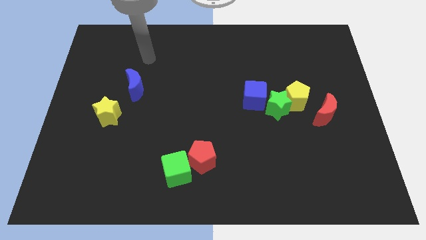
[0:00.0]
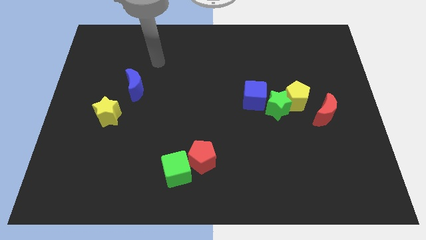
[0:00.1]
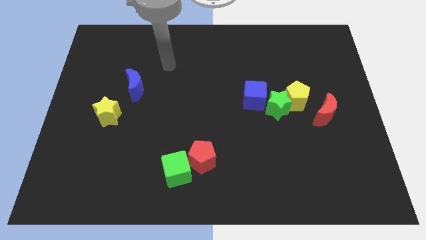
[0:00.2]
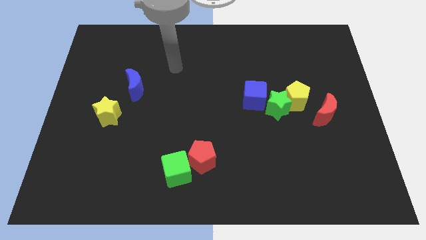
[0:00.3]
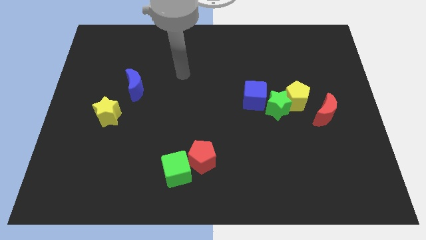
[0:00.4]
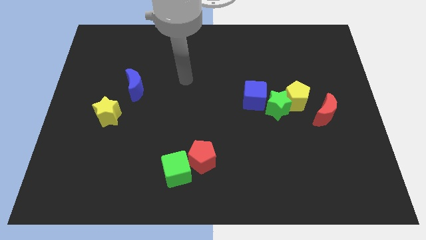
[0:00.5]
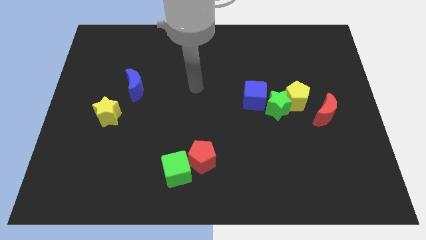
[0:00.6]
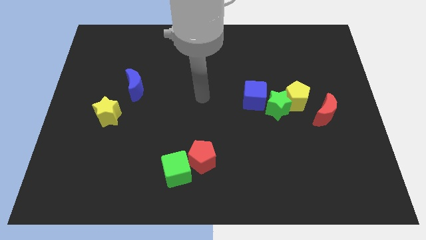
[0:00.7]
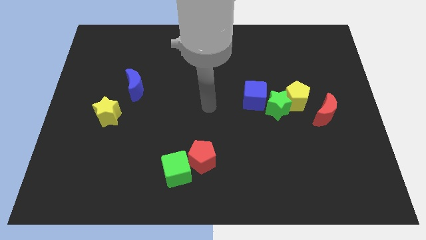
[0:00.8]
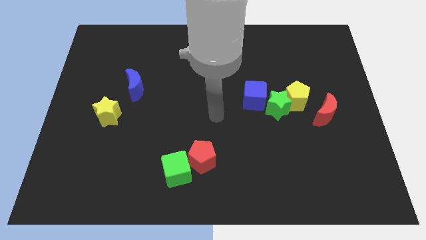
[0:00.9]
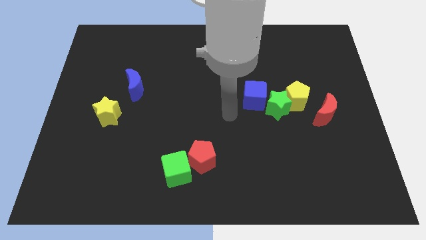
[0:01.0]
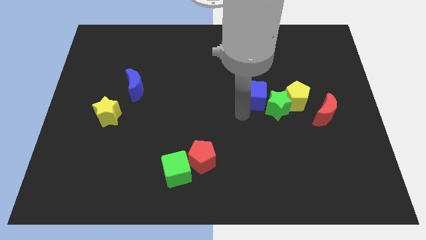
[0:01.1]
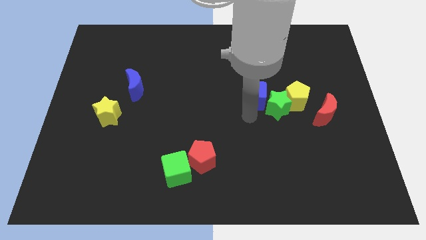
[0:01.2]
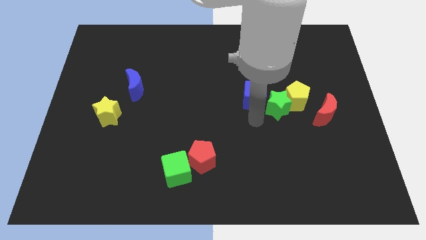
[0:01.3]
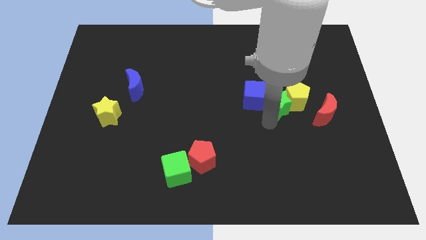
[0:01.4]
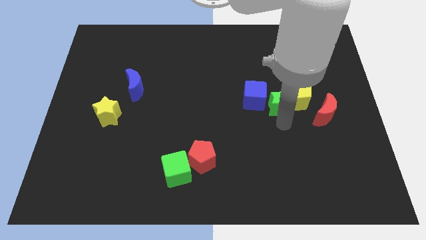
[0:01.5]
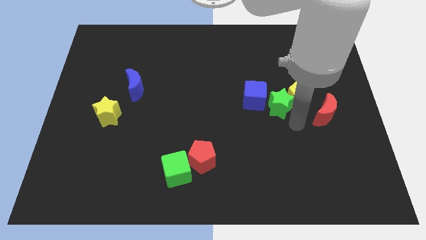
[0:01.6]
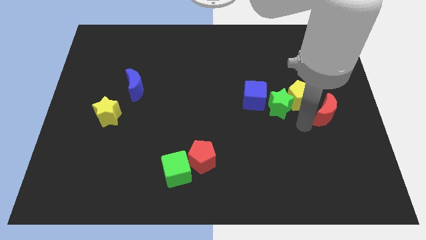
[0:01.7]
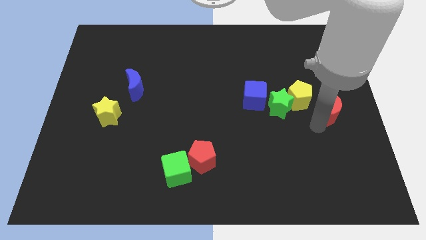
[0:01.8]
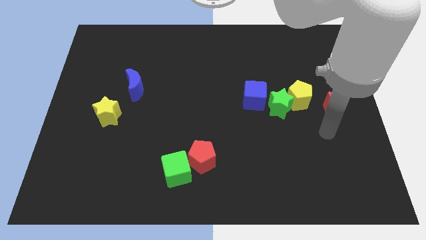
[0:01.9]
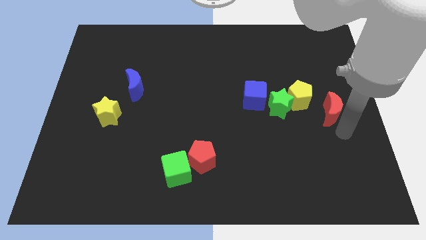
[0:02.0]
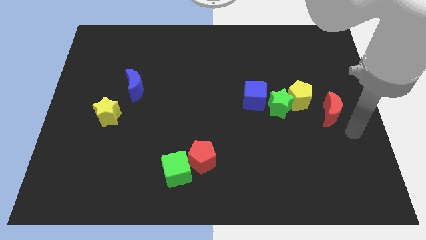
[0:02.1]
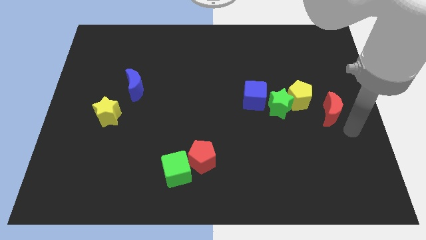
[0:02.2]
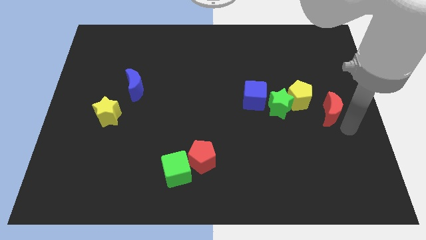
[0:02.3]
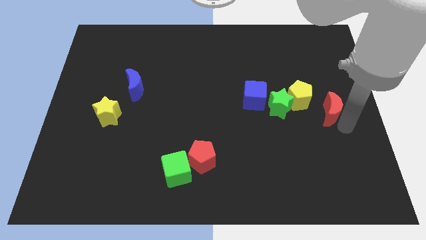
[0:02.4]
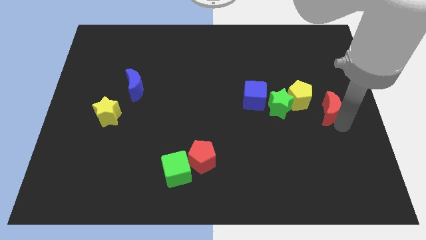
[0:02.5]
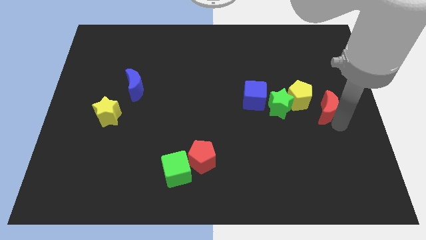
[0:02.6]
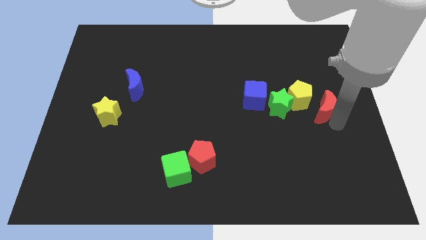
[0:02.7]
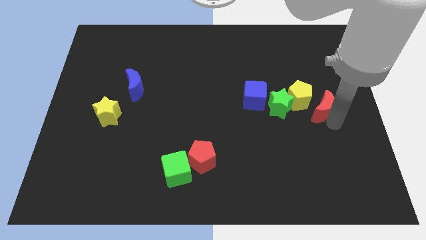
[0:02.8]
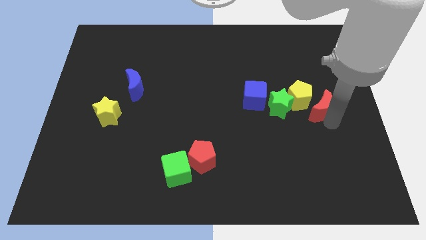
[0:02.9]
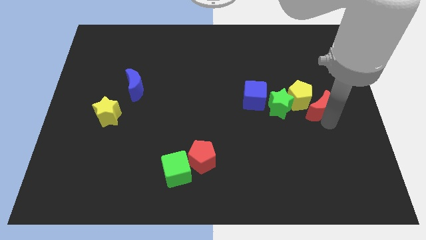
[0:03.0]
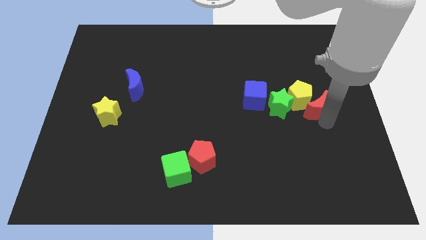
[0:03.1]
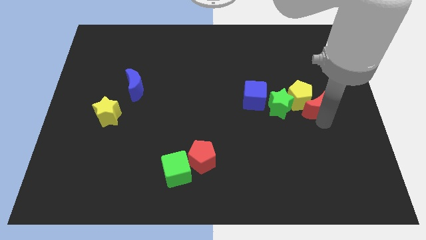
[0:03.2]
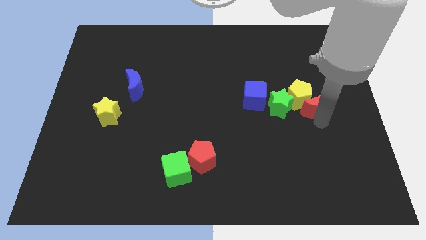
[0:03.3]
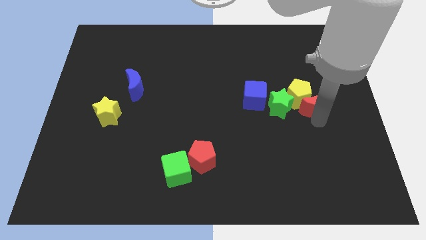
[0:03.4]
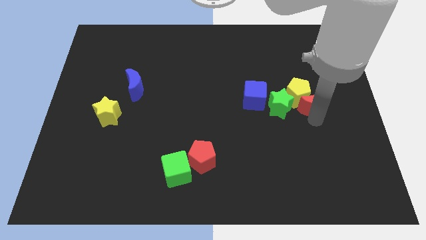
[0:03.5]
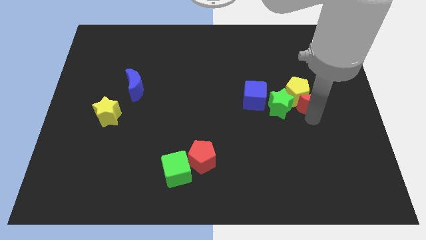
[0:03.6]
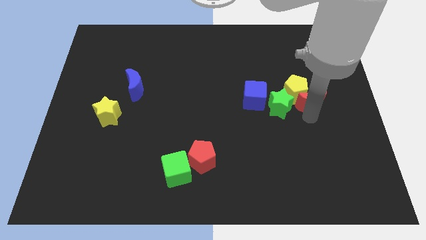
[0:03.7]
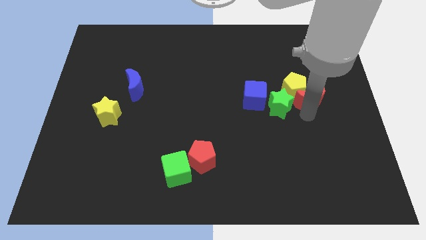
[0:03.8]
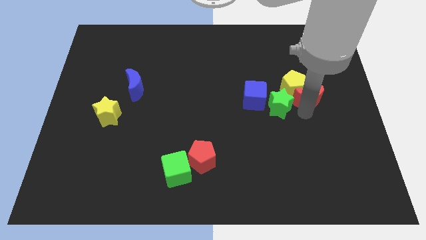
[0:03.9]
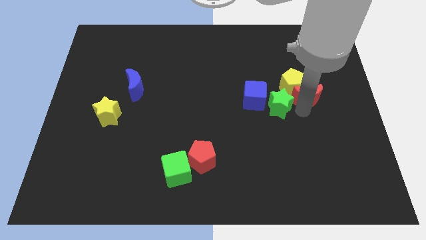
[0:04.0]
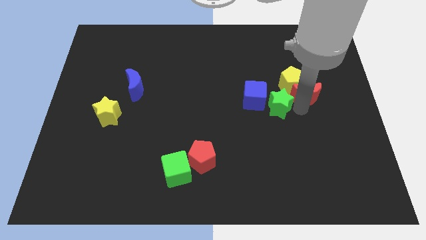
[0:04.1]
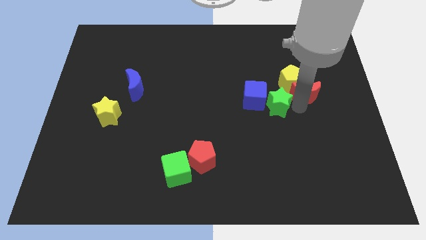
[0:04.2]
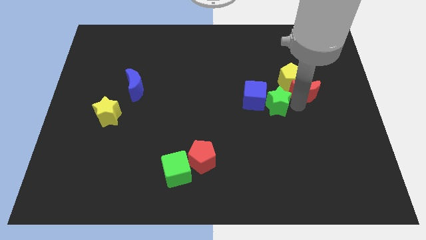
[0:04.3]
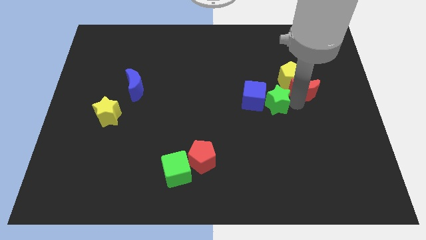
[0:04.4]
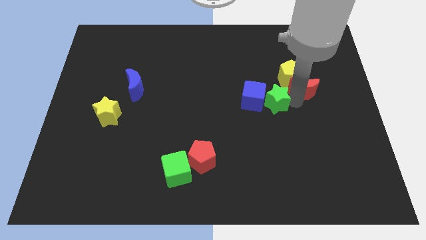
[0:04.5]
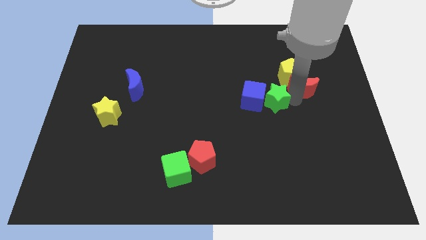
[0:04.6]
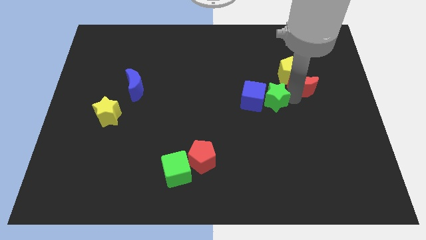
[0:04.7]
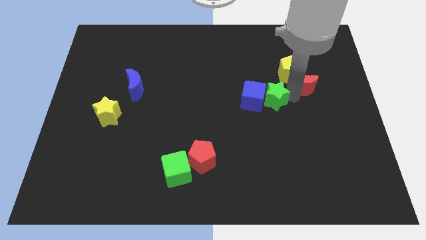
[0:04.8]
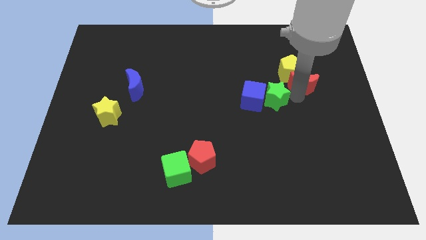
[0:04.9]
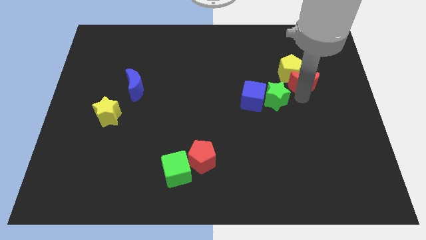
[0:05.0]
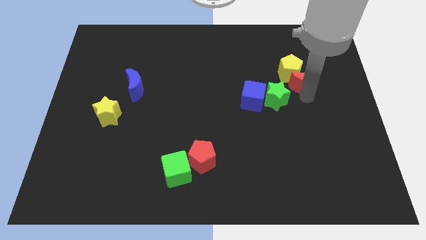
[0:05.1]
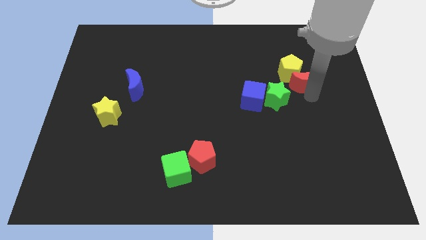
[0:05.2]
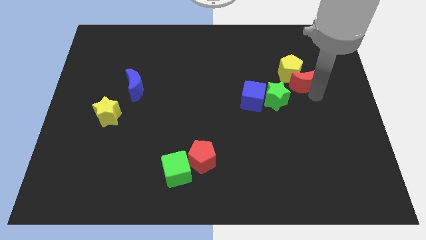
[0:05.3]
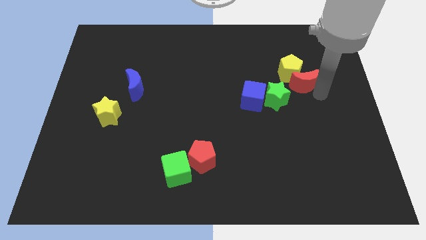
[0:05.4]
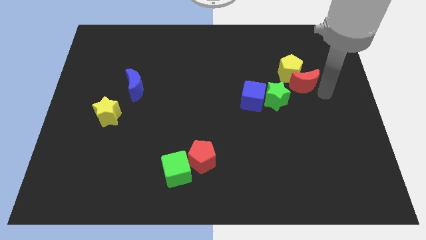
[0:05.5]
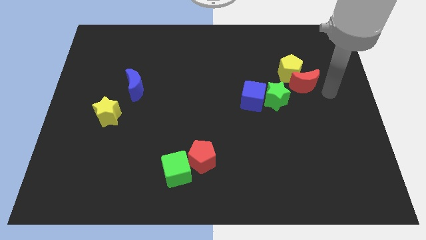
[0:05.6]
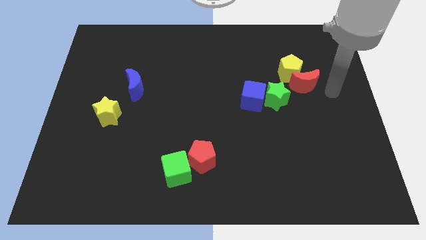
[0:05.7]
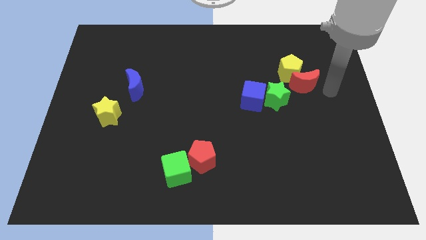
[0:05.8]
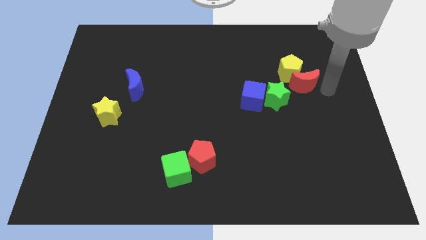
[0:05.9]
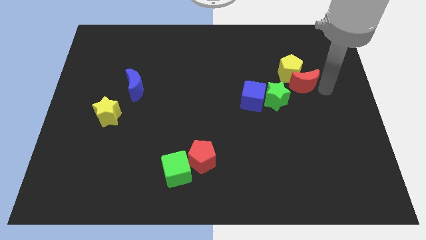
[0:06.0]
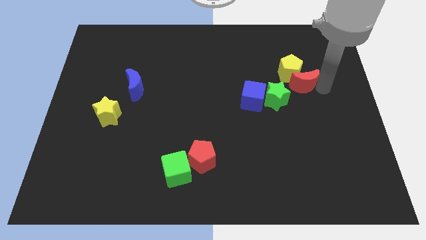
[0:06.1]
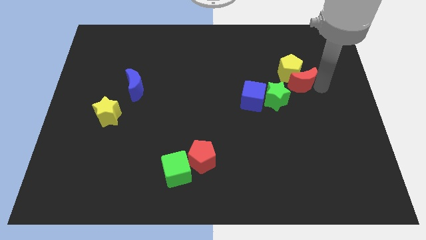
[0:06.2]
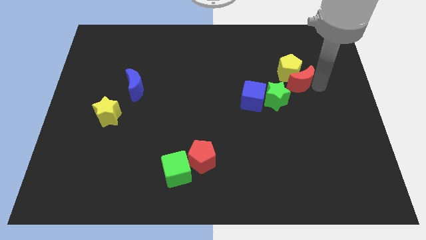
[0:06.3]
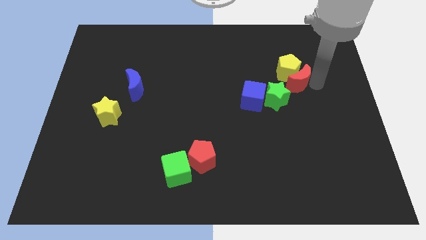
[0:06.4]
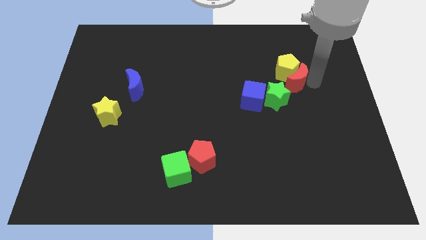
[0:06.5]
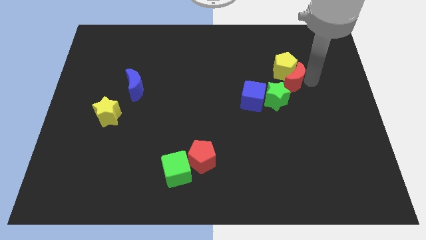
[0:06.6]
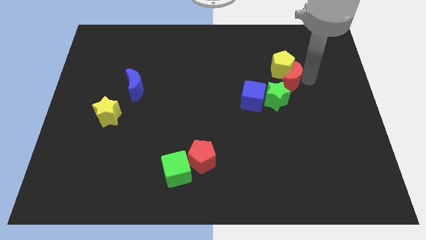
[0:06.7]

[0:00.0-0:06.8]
put the red moon to the top right of the blue cube

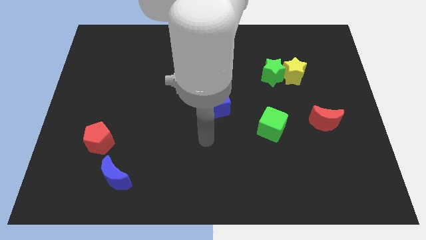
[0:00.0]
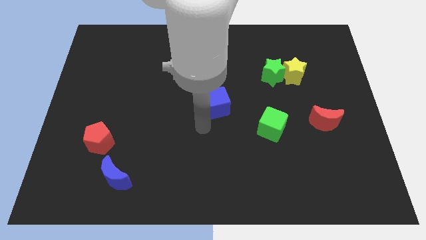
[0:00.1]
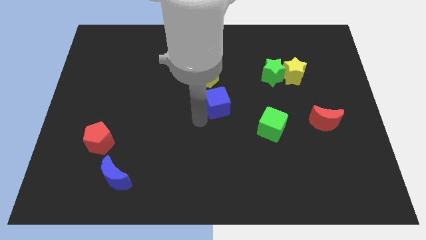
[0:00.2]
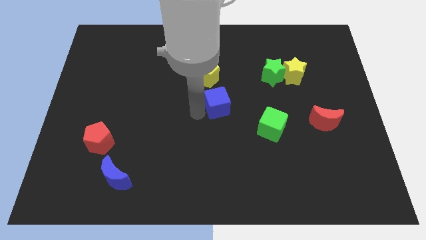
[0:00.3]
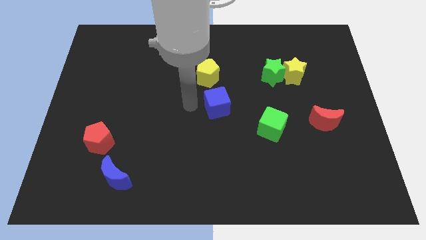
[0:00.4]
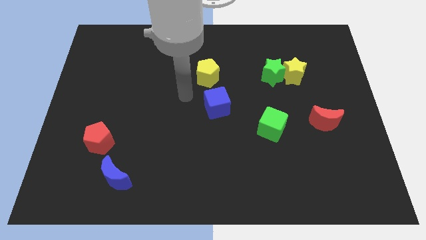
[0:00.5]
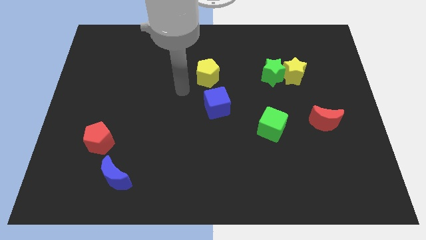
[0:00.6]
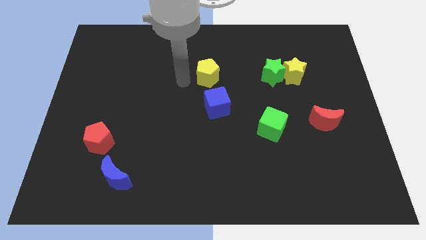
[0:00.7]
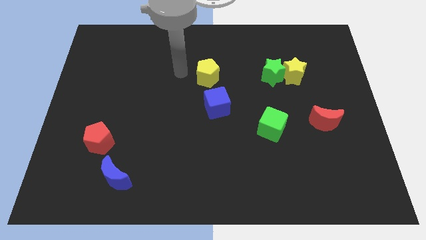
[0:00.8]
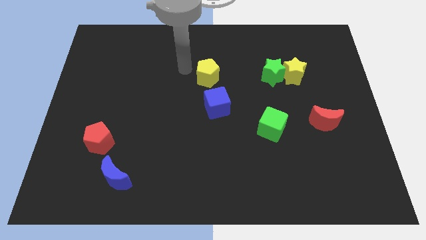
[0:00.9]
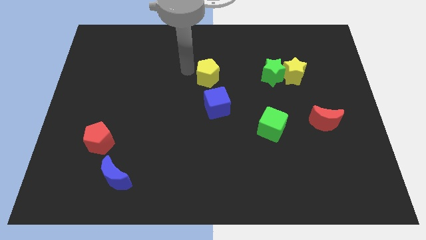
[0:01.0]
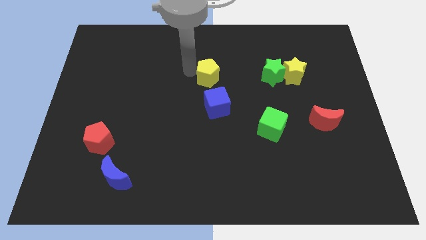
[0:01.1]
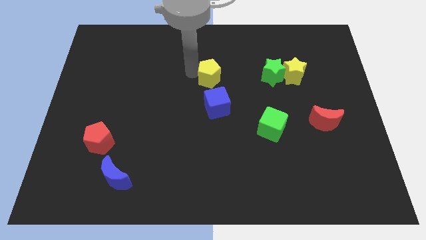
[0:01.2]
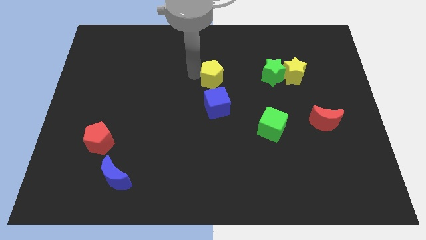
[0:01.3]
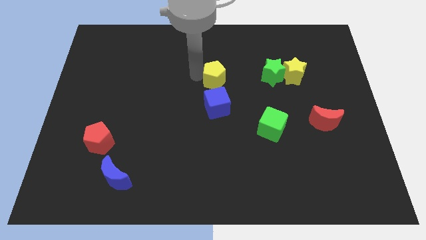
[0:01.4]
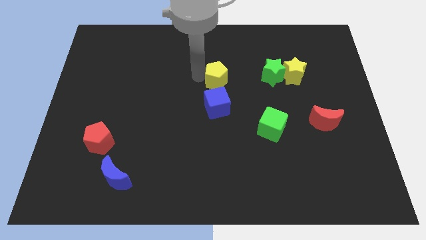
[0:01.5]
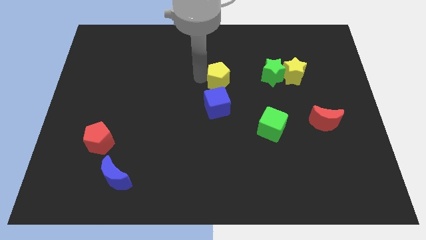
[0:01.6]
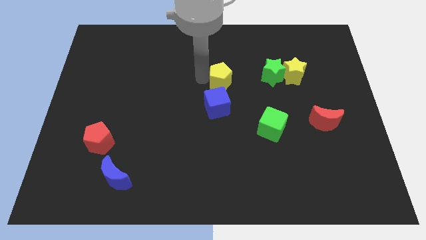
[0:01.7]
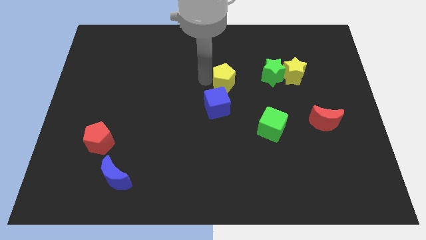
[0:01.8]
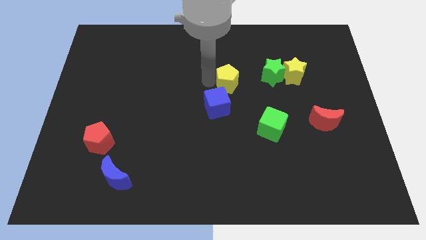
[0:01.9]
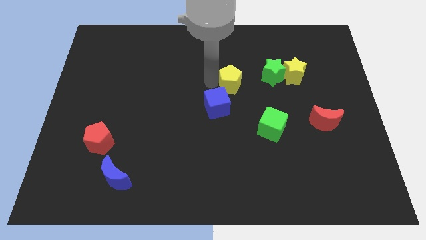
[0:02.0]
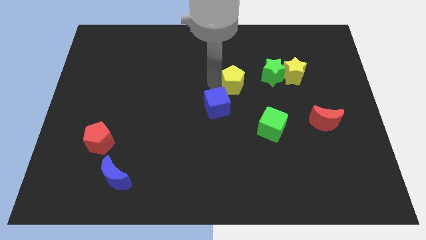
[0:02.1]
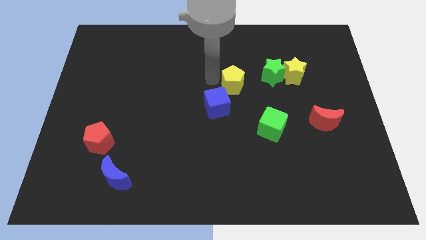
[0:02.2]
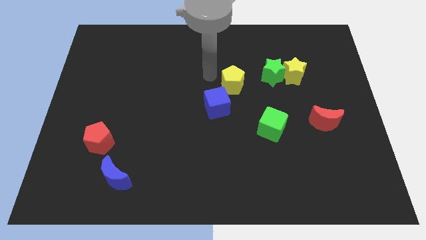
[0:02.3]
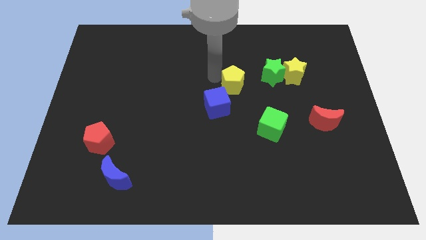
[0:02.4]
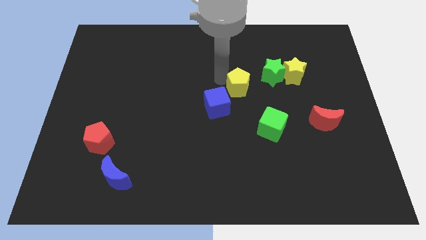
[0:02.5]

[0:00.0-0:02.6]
push the yellow pentagon to the bottom left side of the green star
